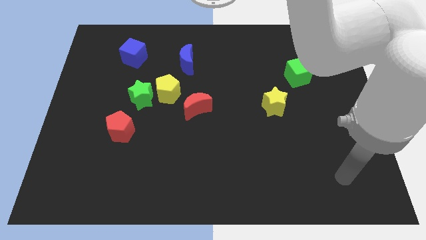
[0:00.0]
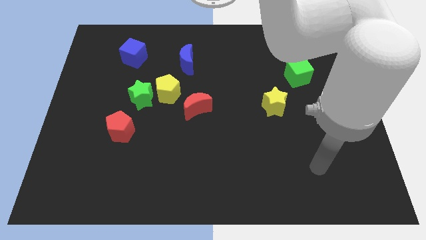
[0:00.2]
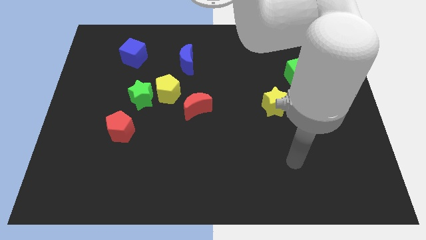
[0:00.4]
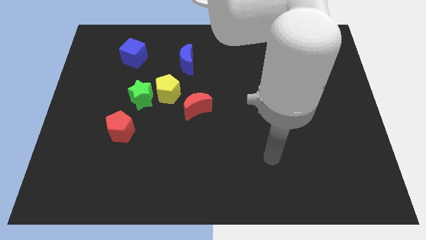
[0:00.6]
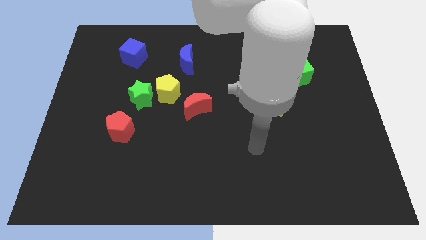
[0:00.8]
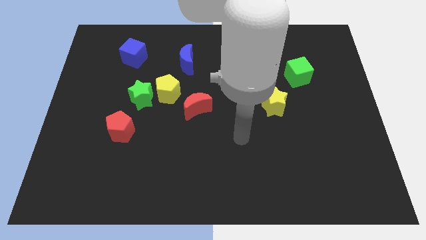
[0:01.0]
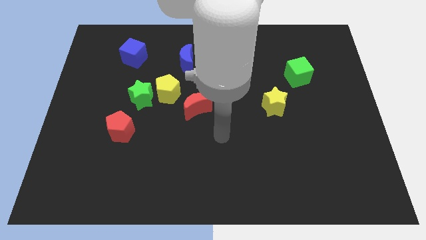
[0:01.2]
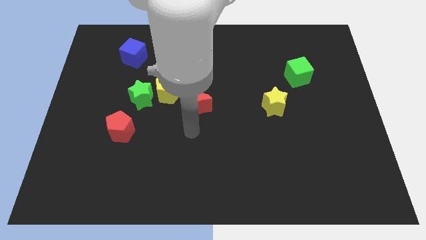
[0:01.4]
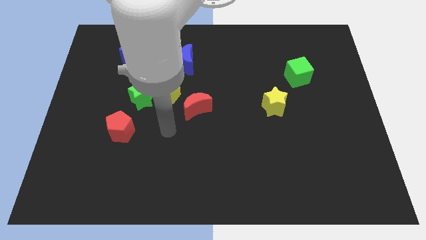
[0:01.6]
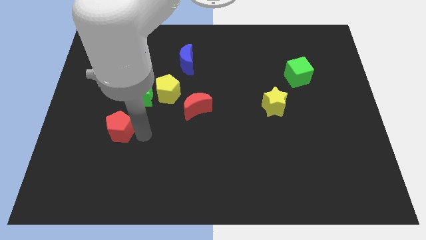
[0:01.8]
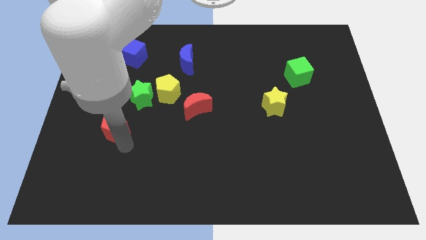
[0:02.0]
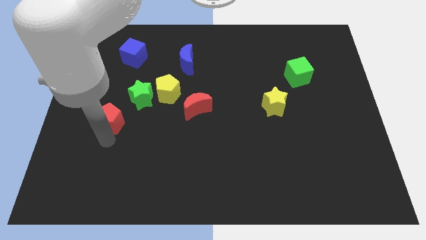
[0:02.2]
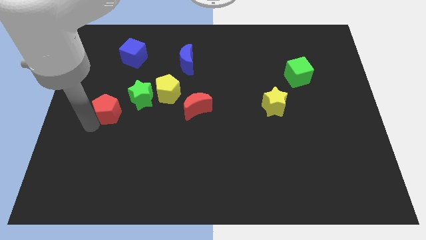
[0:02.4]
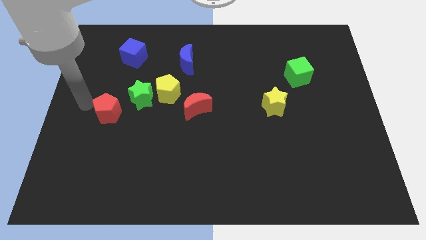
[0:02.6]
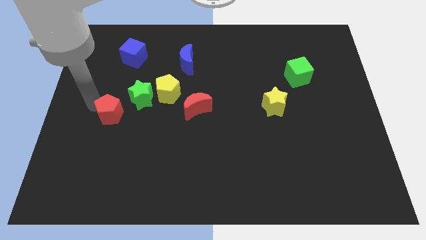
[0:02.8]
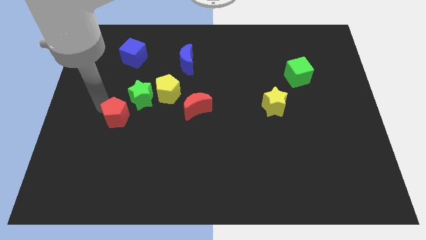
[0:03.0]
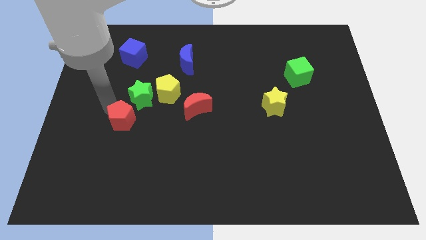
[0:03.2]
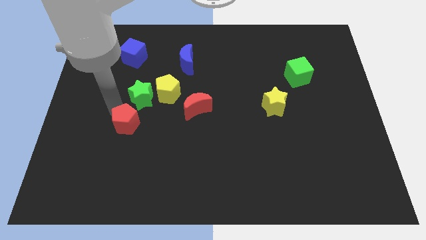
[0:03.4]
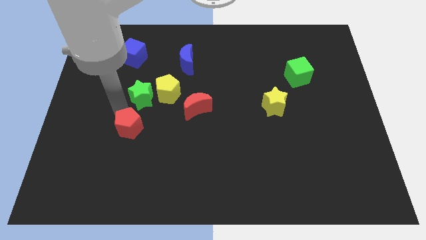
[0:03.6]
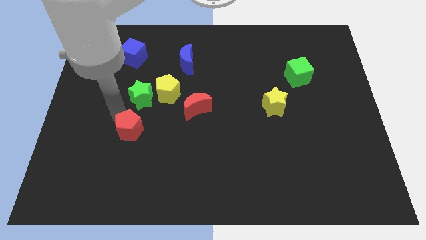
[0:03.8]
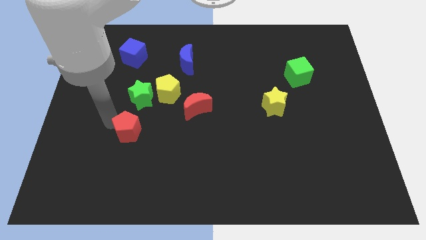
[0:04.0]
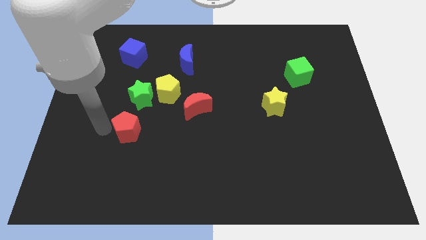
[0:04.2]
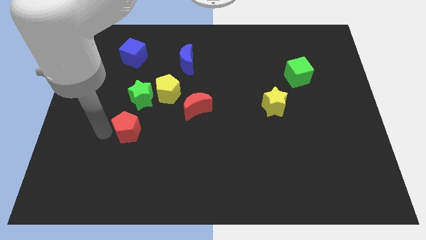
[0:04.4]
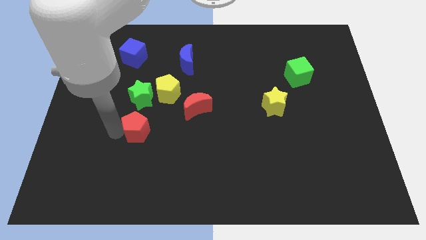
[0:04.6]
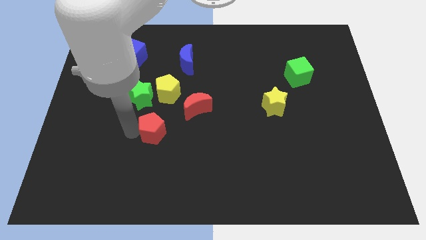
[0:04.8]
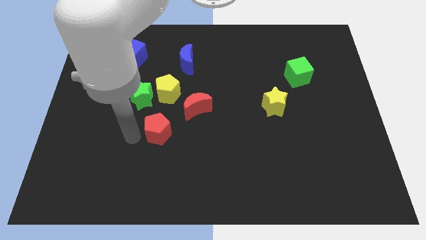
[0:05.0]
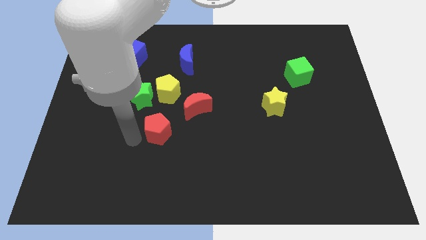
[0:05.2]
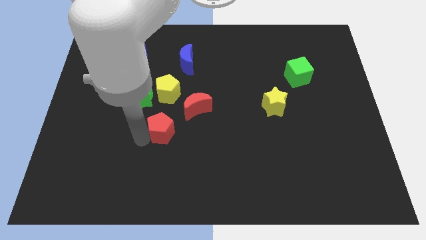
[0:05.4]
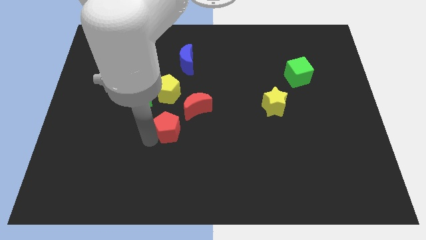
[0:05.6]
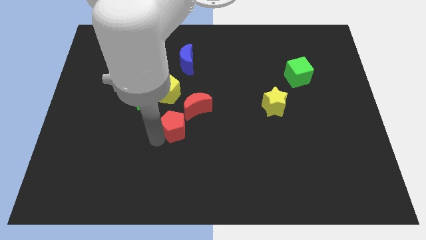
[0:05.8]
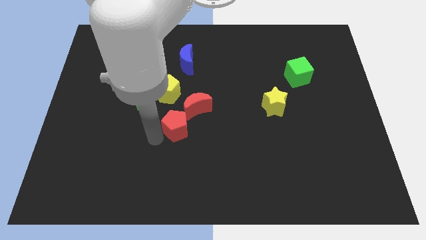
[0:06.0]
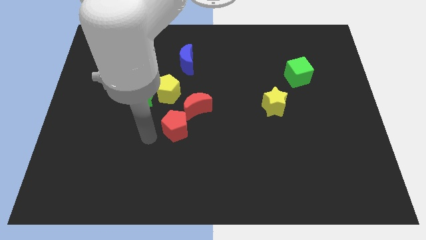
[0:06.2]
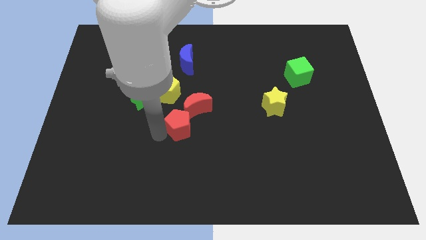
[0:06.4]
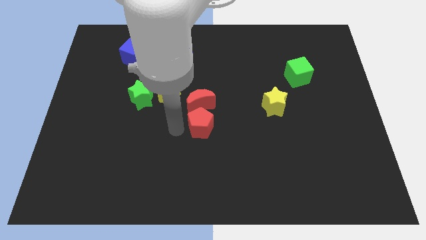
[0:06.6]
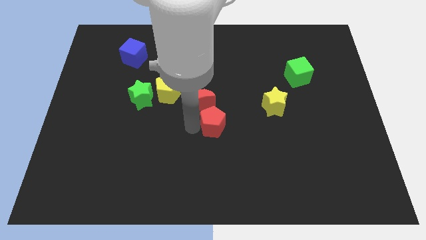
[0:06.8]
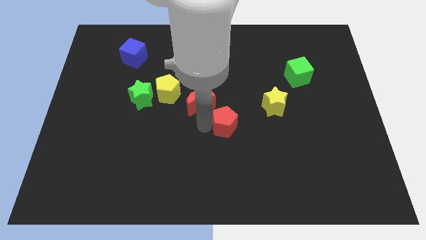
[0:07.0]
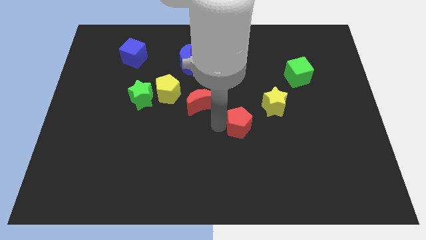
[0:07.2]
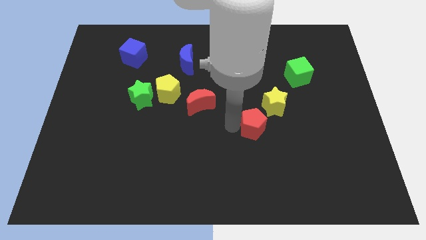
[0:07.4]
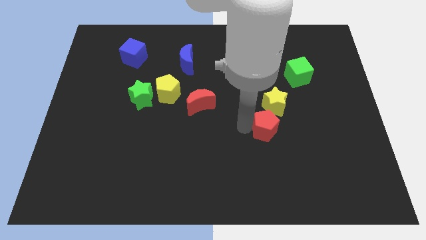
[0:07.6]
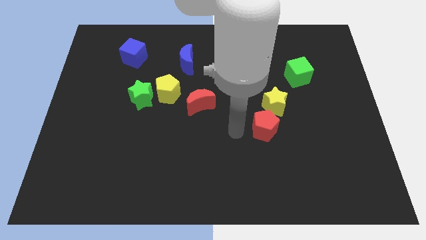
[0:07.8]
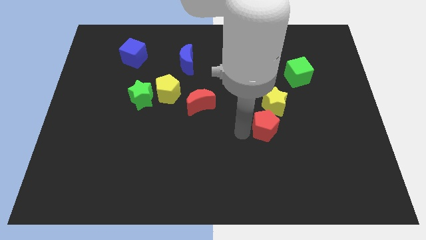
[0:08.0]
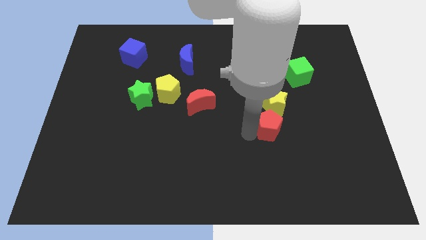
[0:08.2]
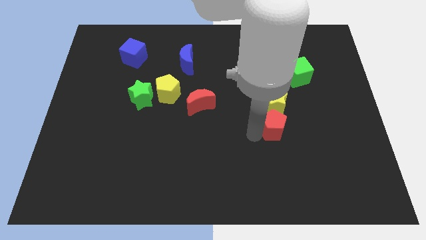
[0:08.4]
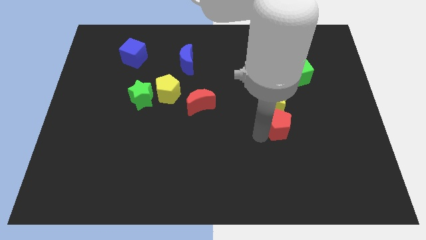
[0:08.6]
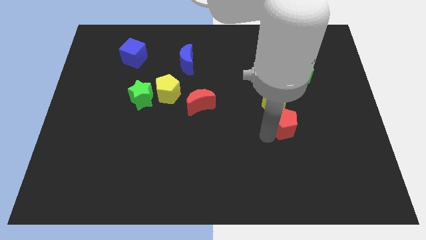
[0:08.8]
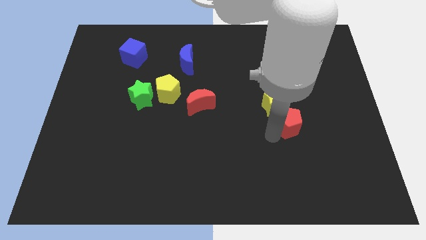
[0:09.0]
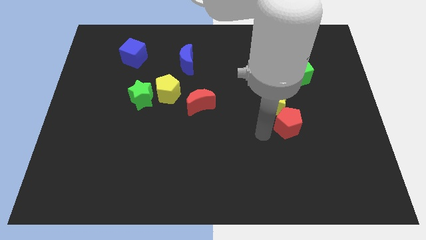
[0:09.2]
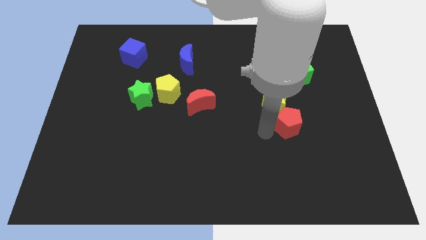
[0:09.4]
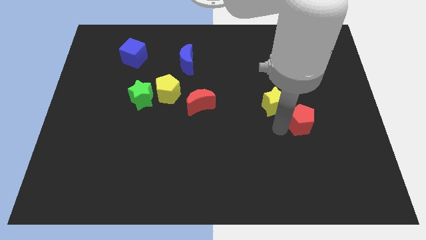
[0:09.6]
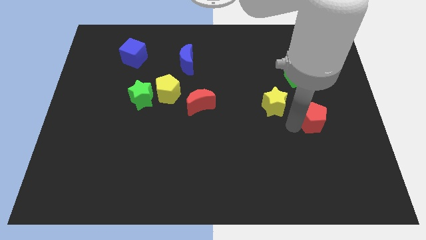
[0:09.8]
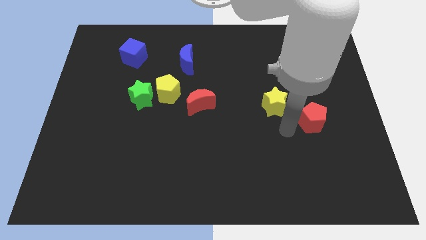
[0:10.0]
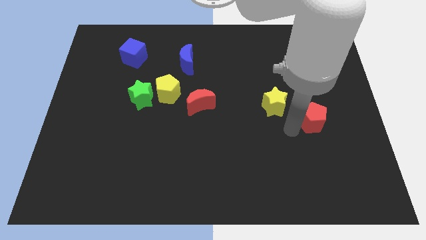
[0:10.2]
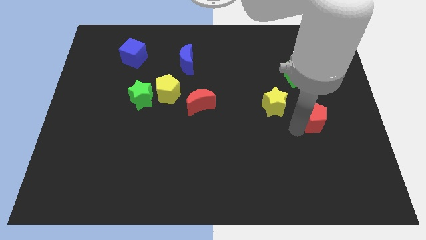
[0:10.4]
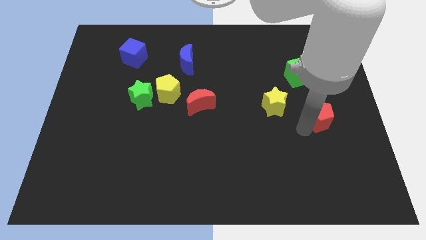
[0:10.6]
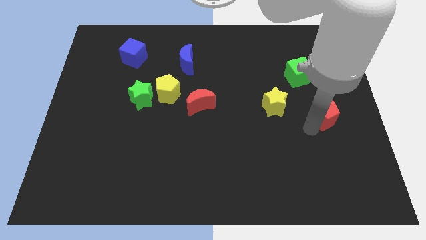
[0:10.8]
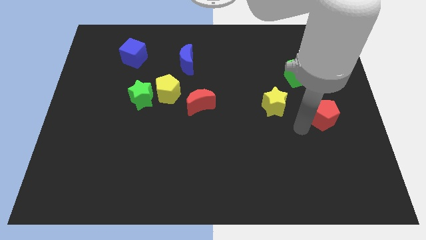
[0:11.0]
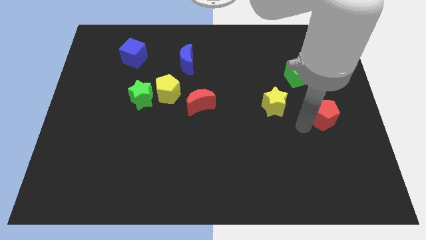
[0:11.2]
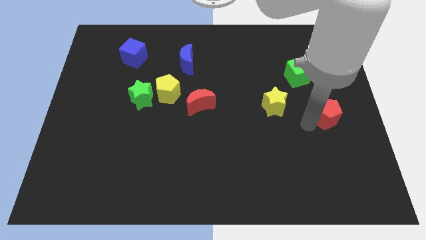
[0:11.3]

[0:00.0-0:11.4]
push the red pentagon to the right side of the board
